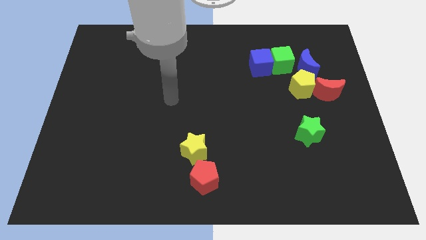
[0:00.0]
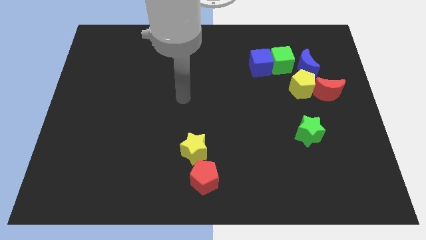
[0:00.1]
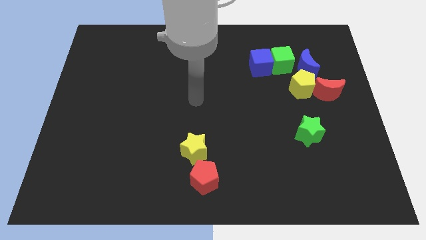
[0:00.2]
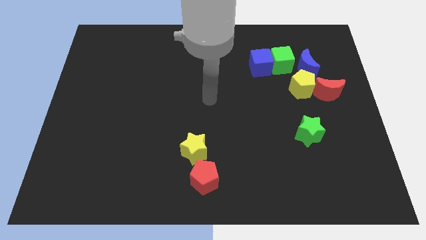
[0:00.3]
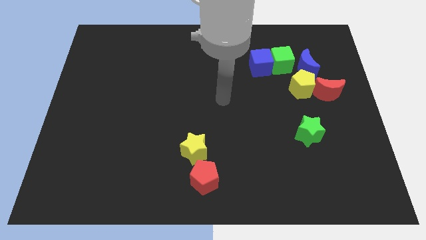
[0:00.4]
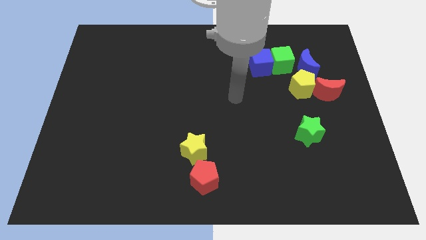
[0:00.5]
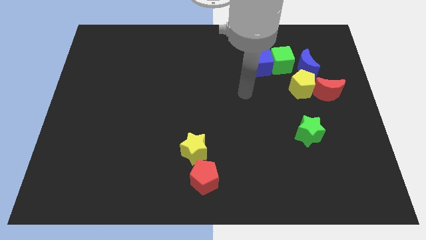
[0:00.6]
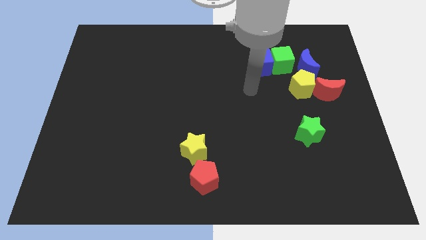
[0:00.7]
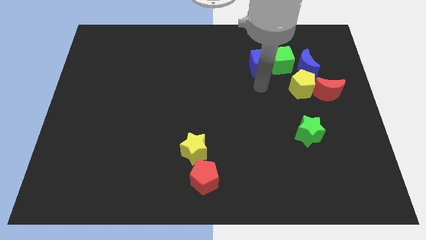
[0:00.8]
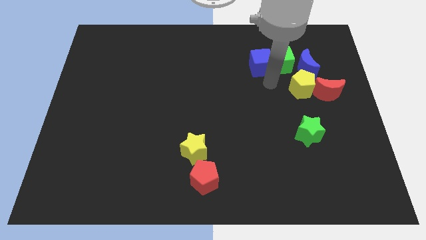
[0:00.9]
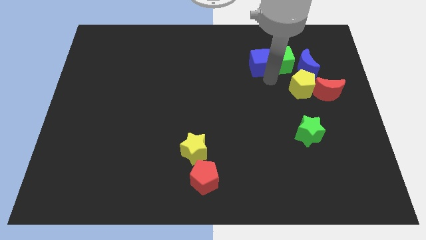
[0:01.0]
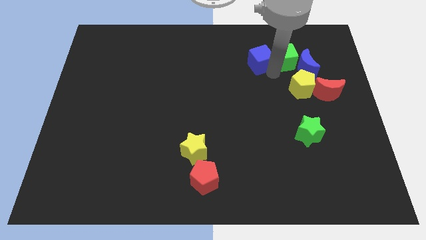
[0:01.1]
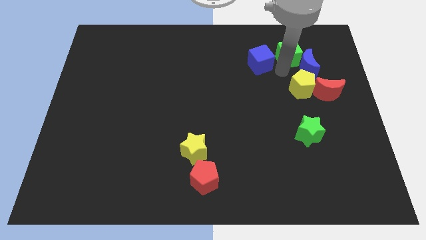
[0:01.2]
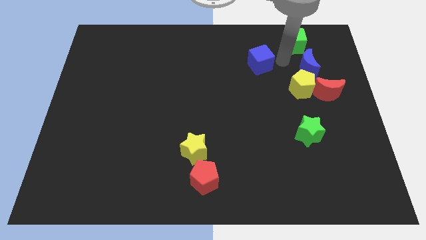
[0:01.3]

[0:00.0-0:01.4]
pull the blue cube apart from the green cube

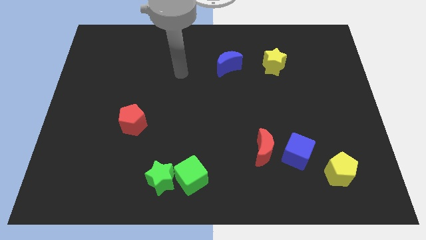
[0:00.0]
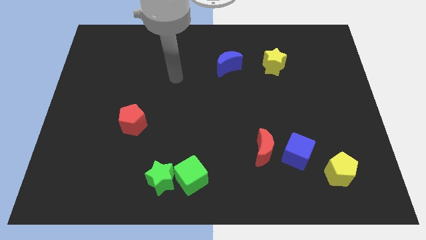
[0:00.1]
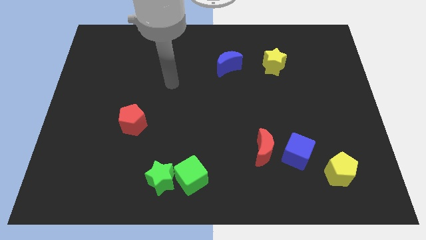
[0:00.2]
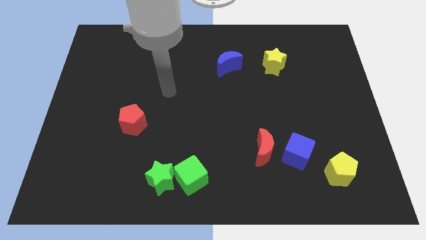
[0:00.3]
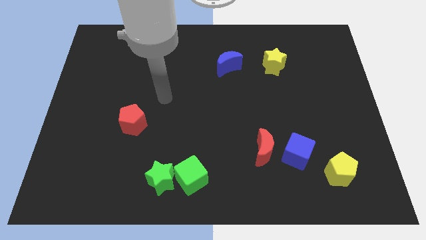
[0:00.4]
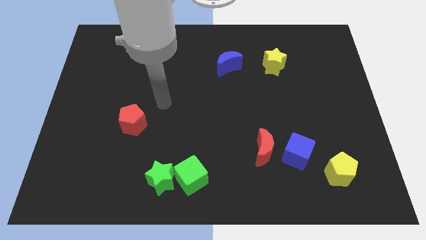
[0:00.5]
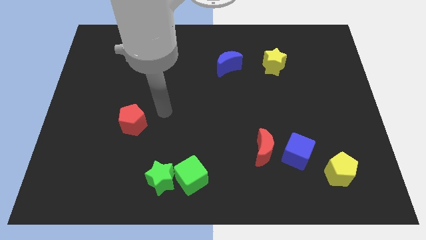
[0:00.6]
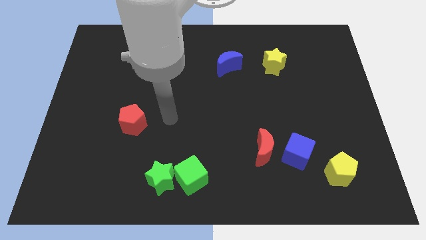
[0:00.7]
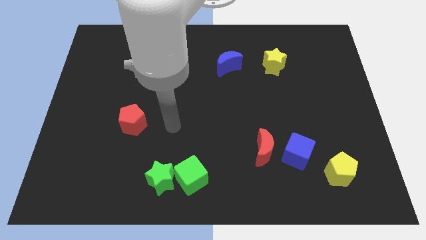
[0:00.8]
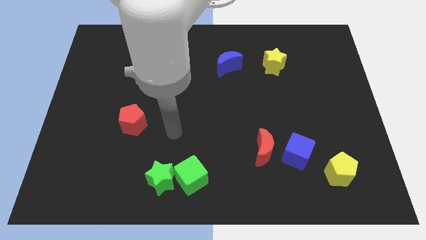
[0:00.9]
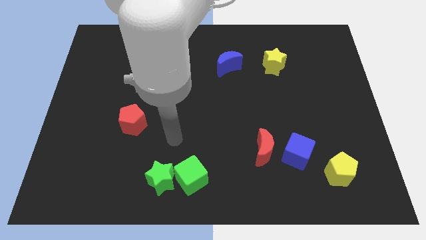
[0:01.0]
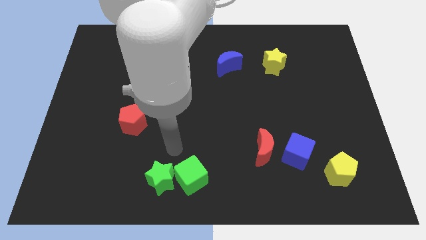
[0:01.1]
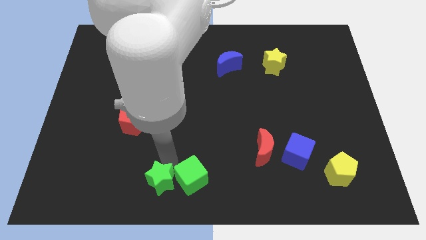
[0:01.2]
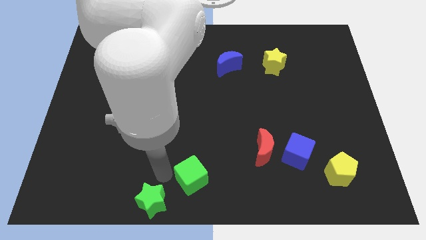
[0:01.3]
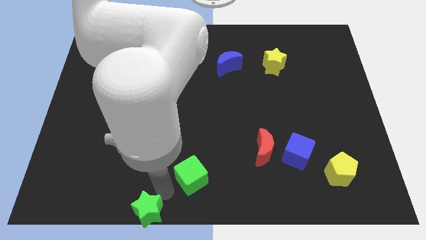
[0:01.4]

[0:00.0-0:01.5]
pull the green cube apart from the green star

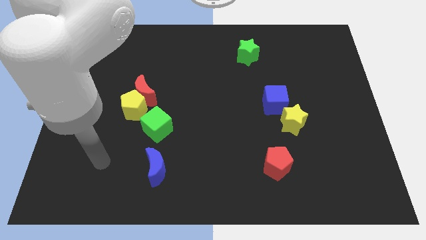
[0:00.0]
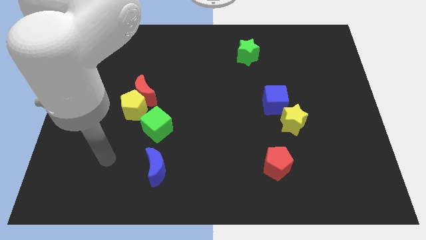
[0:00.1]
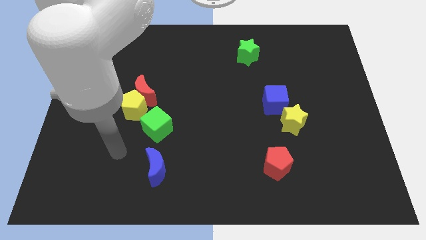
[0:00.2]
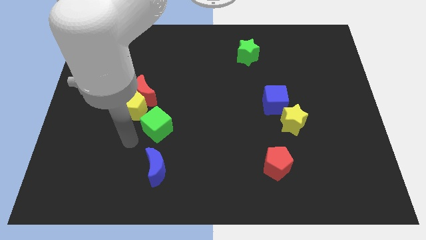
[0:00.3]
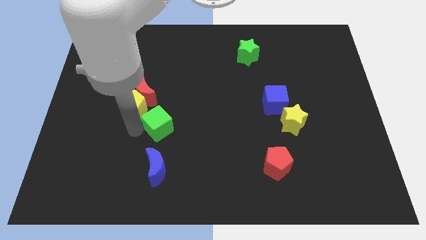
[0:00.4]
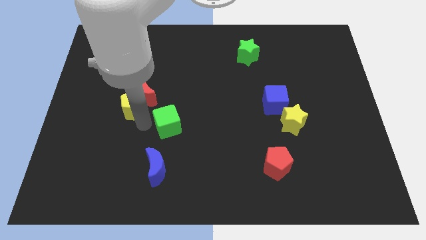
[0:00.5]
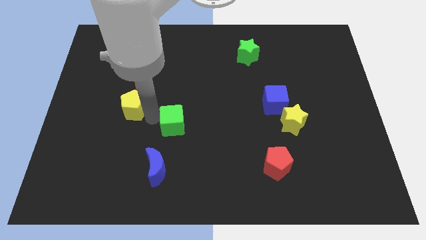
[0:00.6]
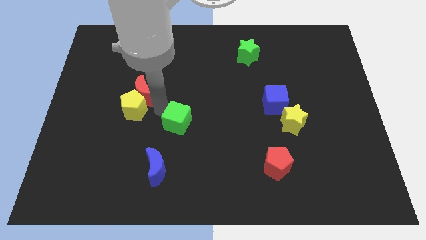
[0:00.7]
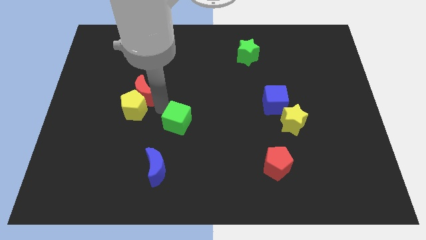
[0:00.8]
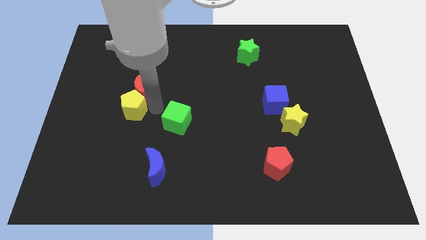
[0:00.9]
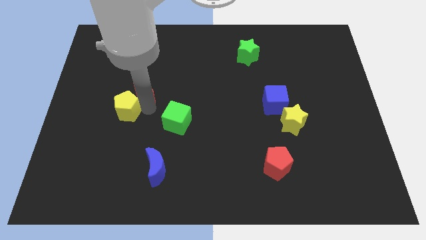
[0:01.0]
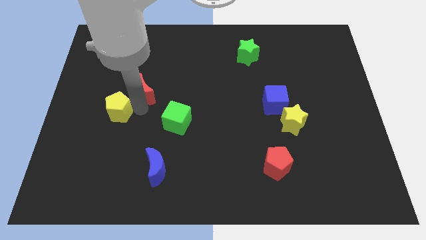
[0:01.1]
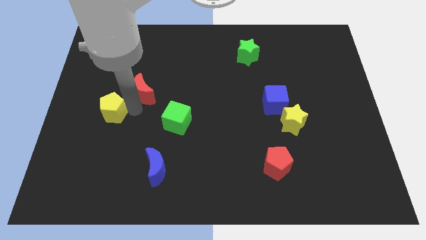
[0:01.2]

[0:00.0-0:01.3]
separate the yellow pentagon from the red moon and green cube

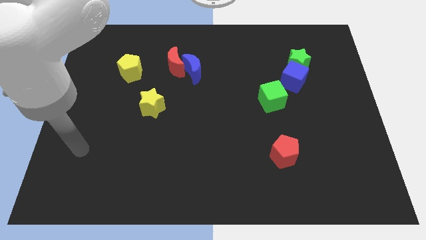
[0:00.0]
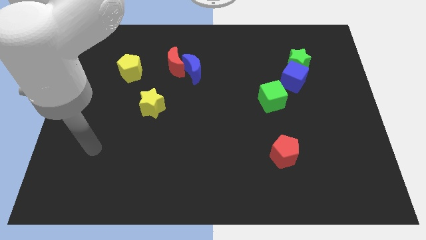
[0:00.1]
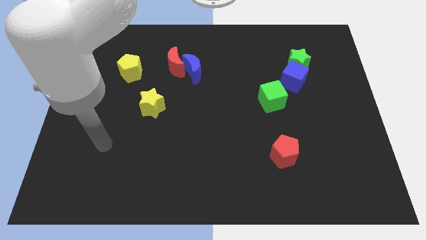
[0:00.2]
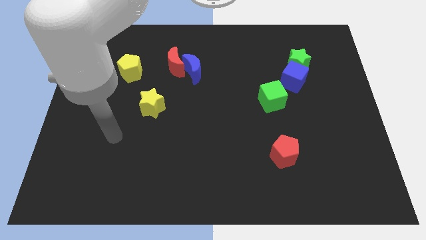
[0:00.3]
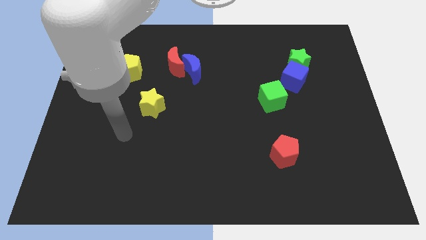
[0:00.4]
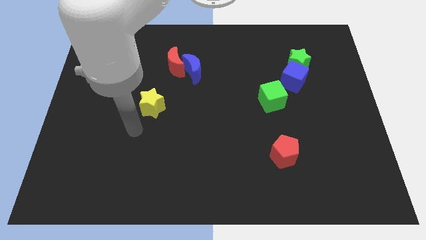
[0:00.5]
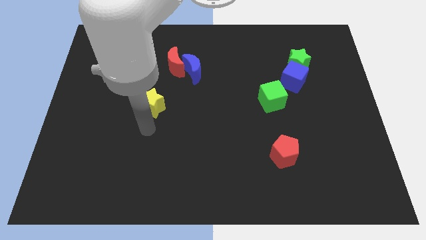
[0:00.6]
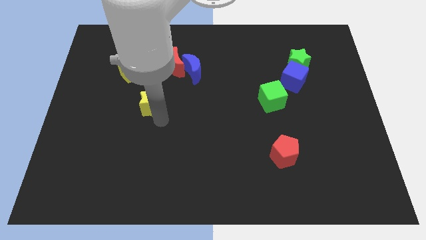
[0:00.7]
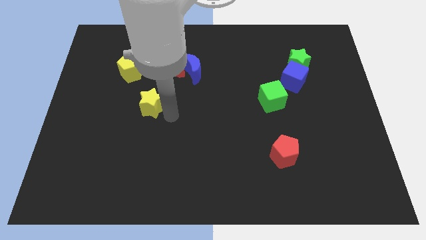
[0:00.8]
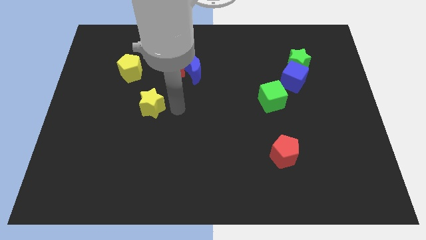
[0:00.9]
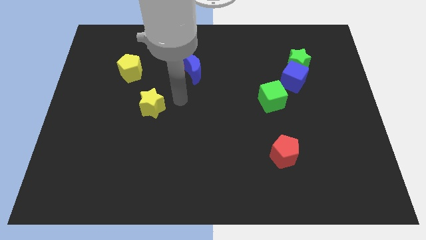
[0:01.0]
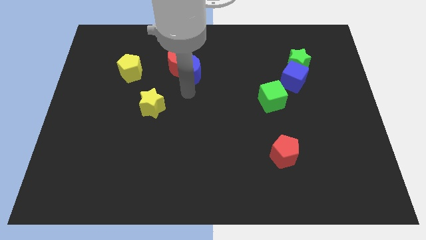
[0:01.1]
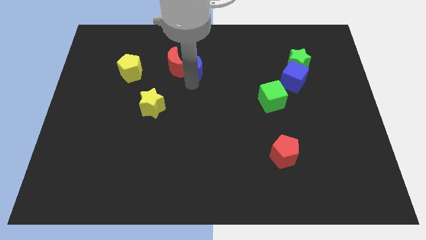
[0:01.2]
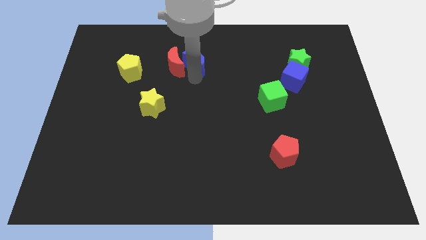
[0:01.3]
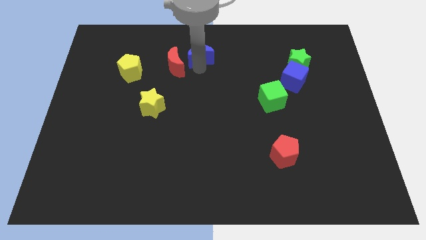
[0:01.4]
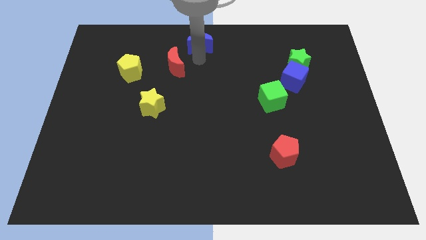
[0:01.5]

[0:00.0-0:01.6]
pull the red moon apart from the blue moon

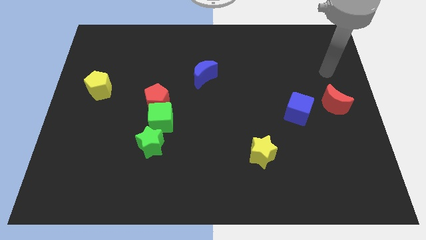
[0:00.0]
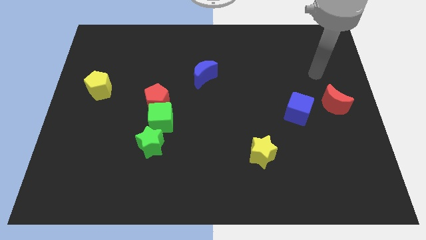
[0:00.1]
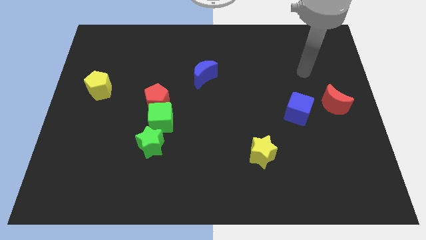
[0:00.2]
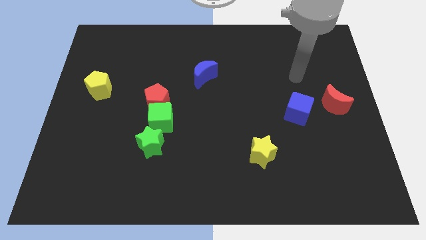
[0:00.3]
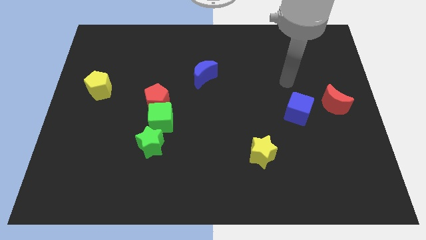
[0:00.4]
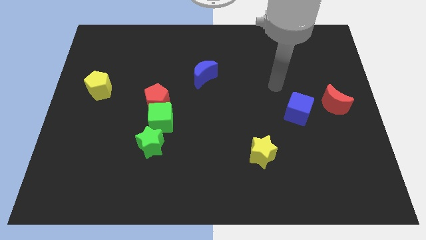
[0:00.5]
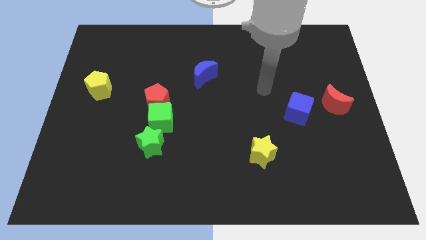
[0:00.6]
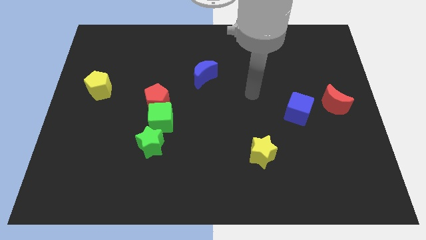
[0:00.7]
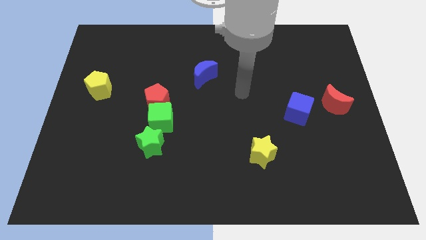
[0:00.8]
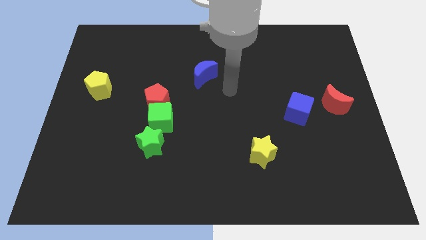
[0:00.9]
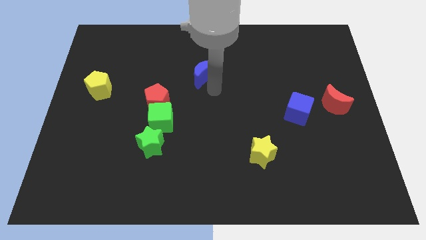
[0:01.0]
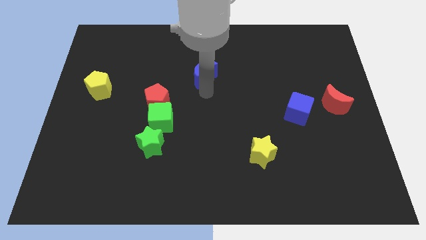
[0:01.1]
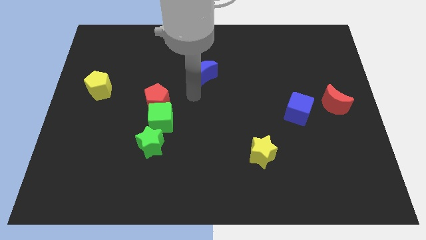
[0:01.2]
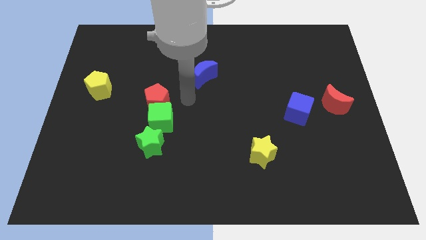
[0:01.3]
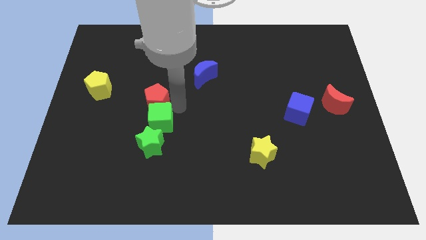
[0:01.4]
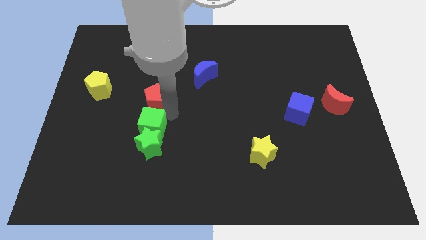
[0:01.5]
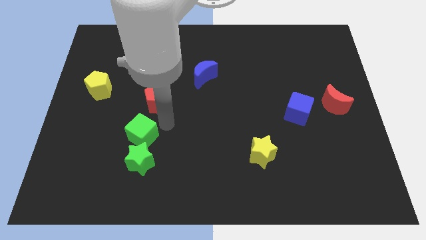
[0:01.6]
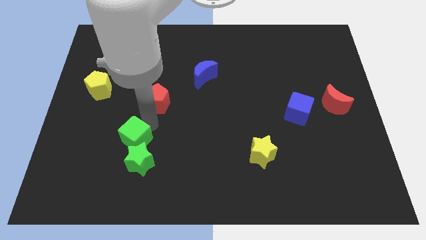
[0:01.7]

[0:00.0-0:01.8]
pull the red pentagon apart from the green cube

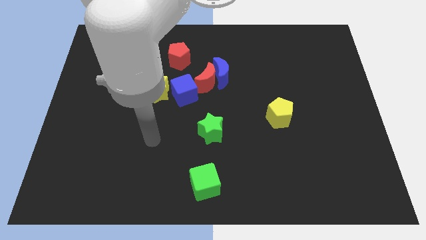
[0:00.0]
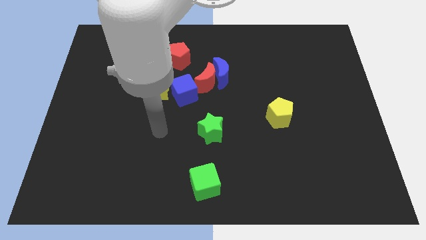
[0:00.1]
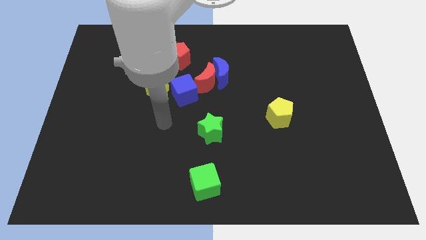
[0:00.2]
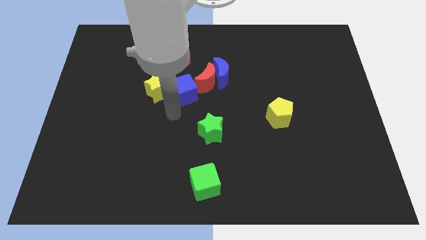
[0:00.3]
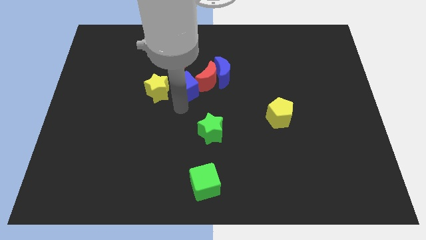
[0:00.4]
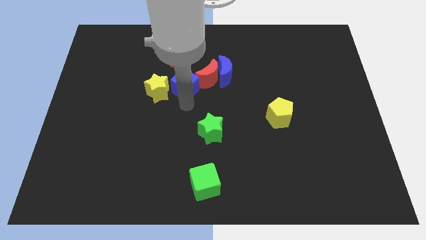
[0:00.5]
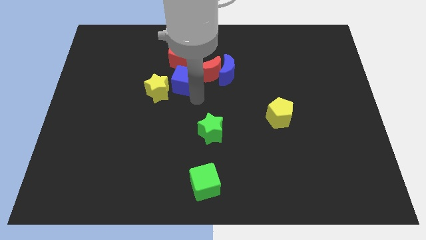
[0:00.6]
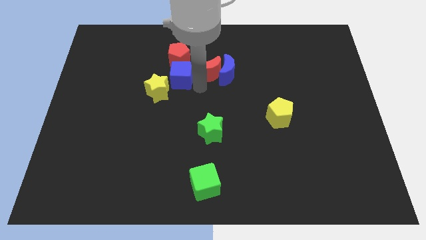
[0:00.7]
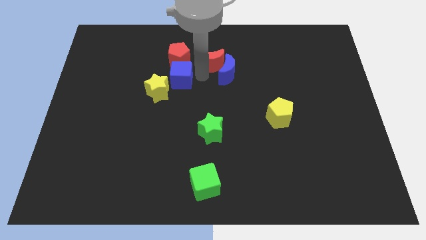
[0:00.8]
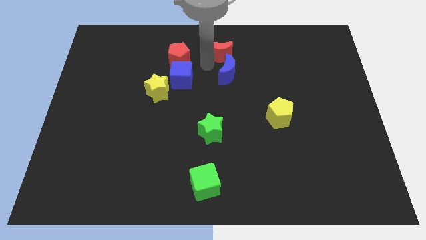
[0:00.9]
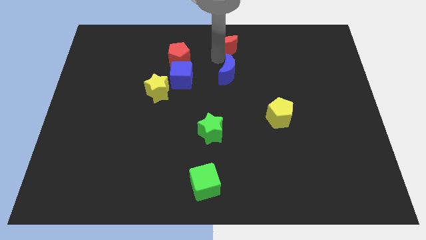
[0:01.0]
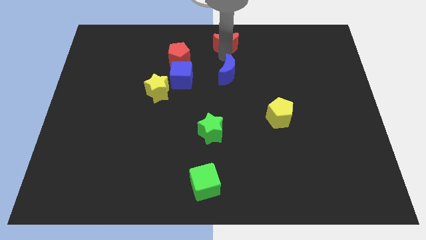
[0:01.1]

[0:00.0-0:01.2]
separate the blue moon from the red moon

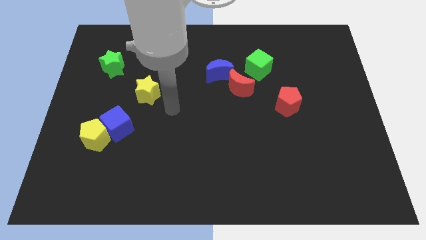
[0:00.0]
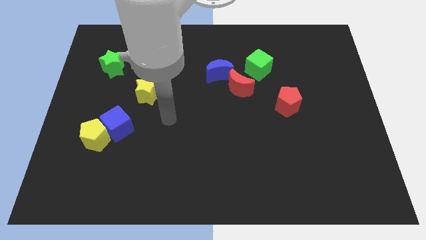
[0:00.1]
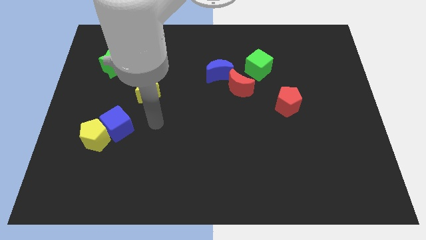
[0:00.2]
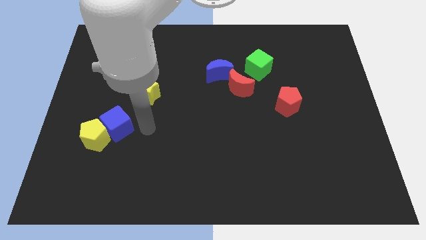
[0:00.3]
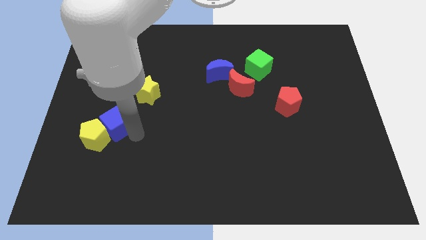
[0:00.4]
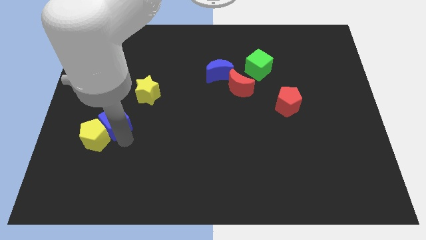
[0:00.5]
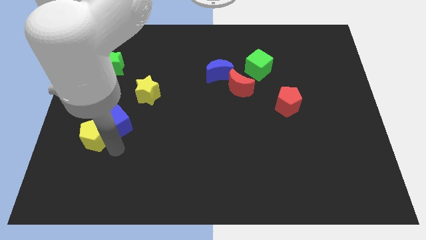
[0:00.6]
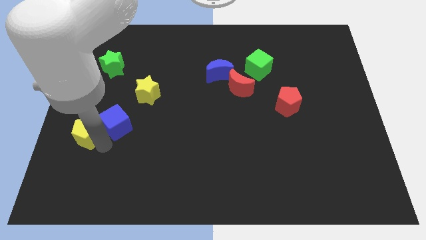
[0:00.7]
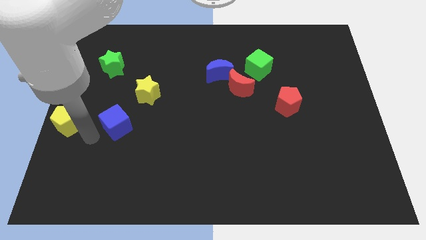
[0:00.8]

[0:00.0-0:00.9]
move the blue cube away from the yellow pentagon
